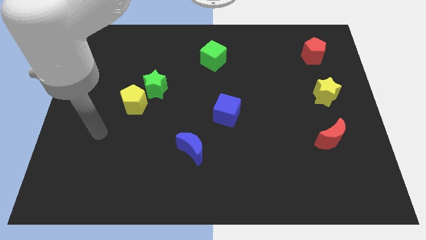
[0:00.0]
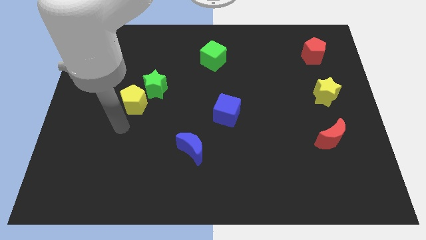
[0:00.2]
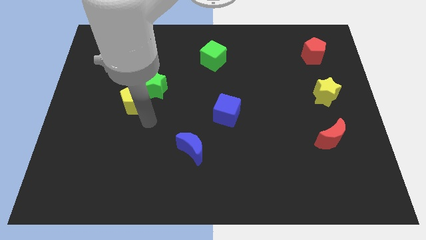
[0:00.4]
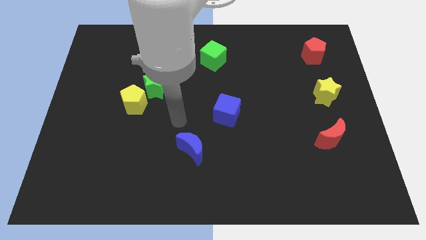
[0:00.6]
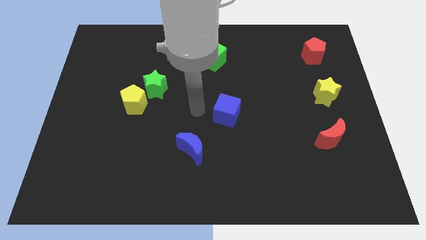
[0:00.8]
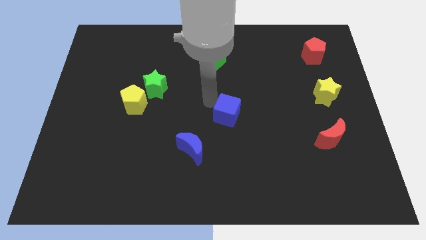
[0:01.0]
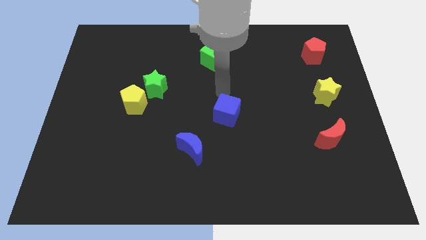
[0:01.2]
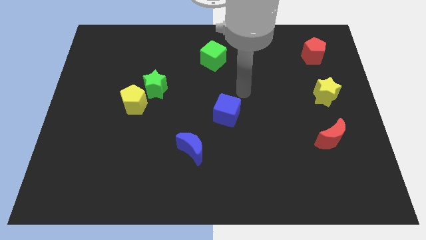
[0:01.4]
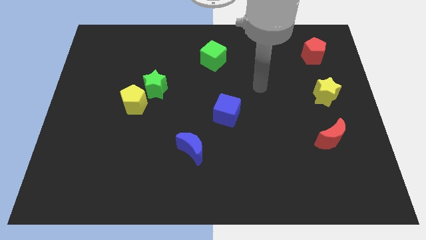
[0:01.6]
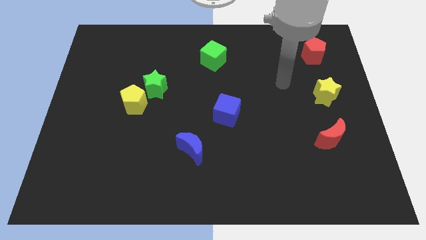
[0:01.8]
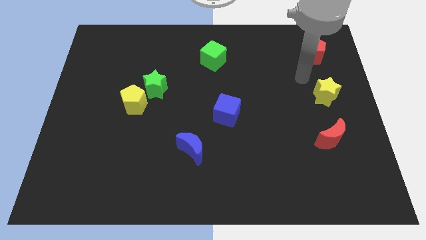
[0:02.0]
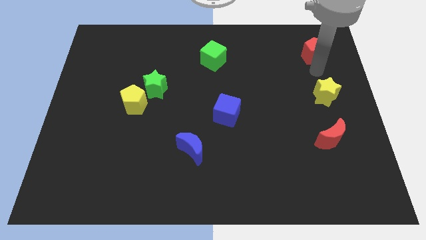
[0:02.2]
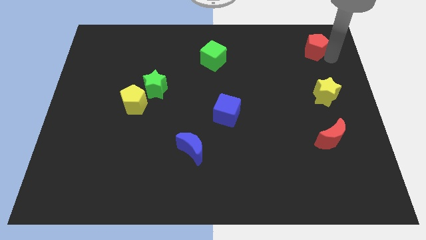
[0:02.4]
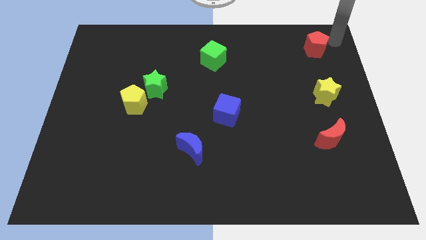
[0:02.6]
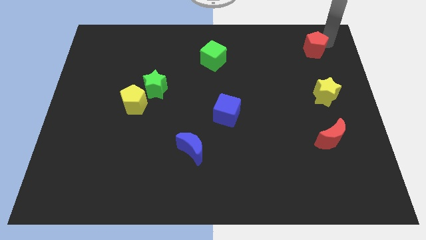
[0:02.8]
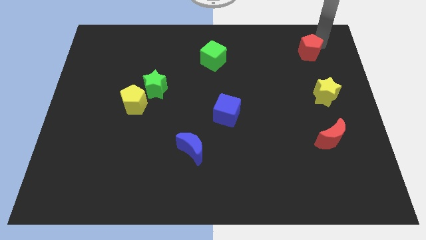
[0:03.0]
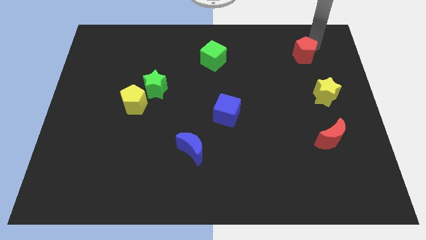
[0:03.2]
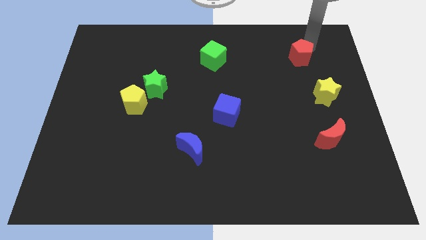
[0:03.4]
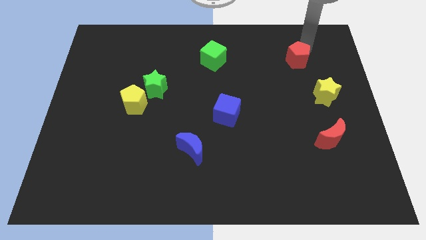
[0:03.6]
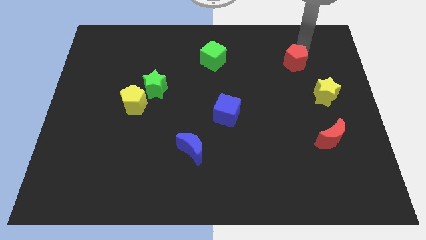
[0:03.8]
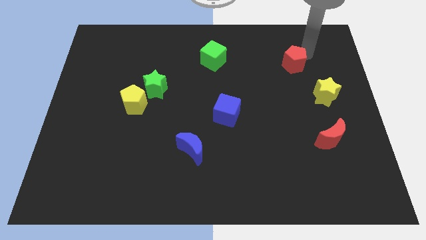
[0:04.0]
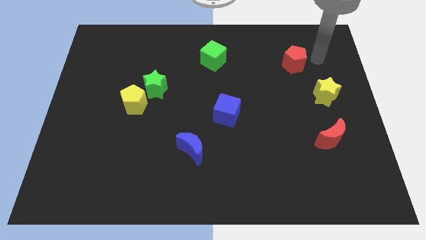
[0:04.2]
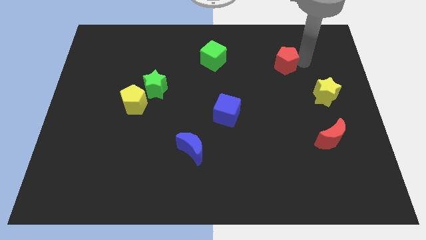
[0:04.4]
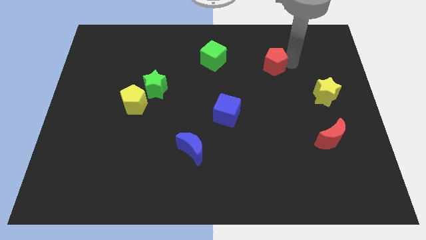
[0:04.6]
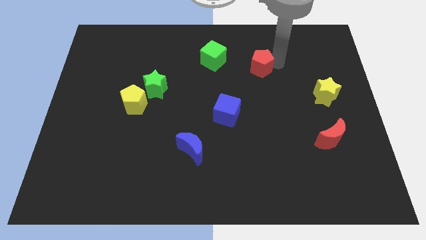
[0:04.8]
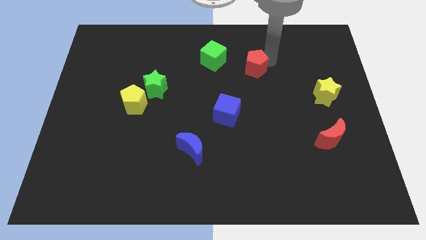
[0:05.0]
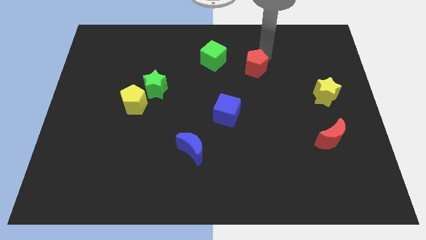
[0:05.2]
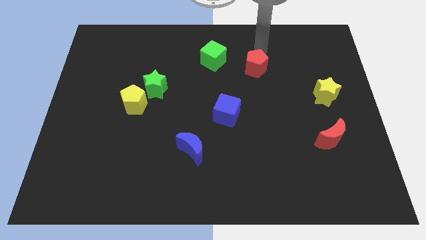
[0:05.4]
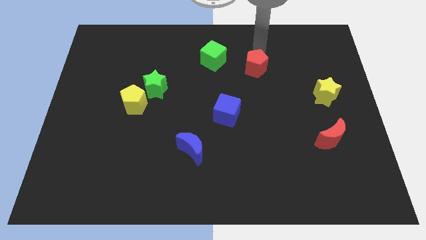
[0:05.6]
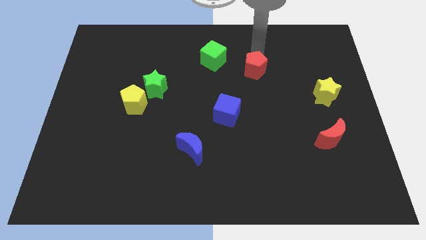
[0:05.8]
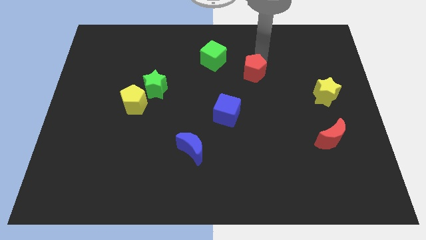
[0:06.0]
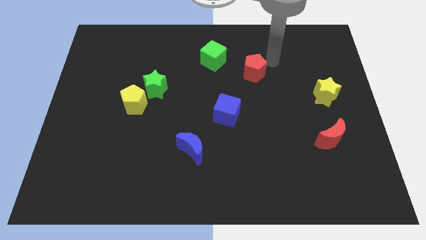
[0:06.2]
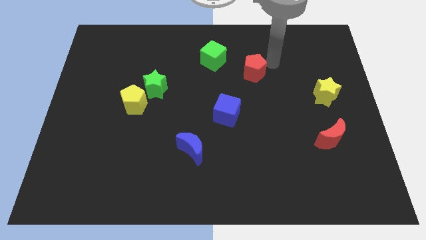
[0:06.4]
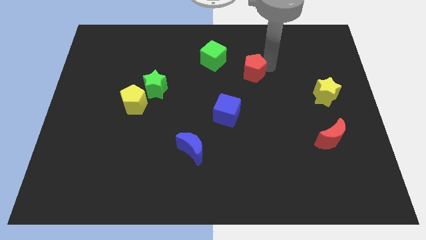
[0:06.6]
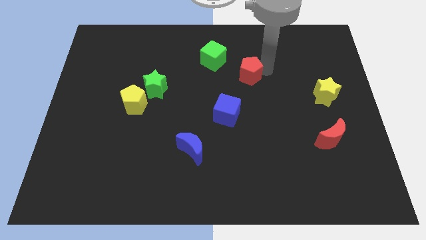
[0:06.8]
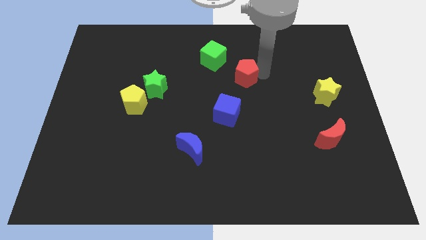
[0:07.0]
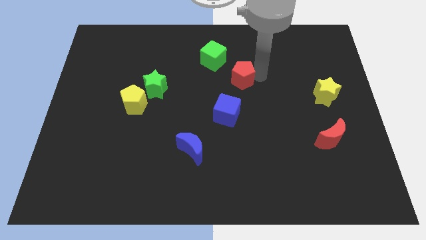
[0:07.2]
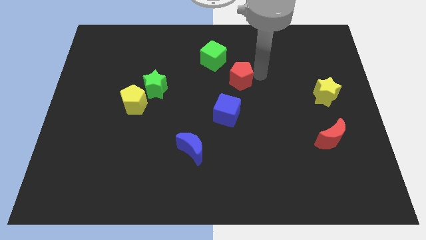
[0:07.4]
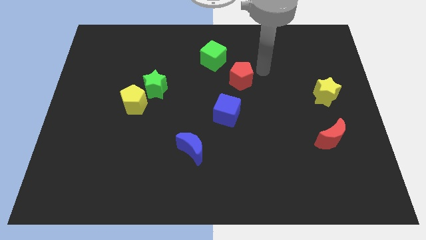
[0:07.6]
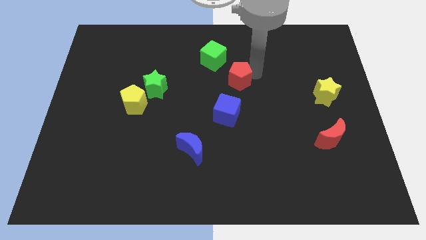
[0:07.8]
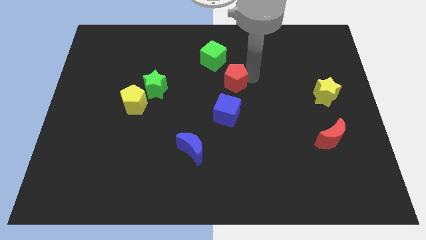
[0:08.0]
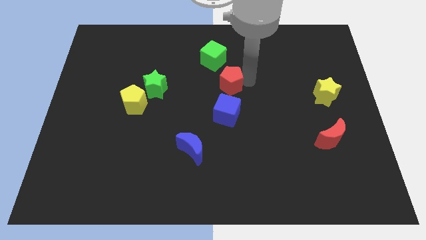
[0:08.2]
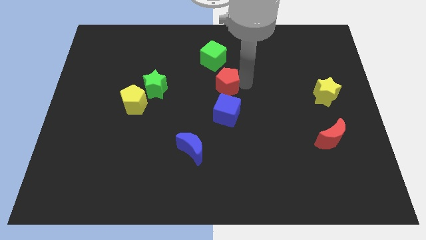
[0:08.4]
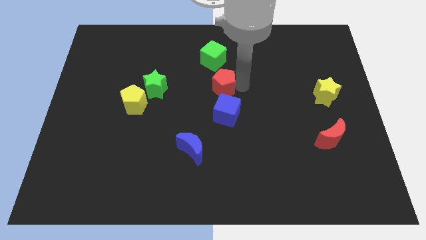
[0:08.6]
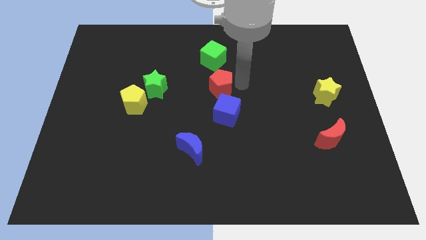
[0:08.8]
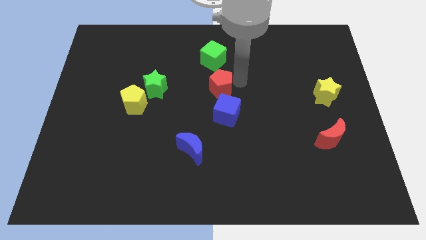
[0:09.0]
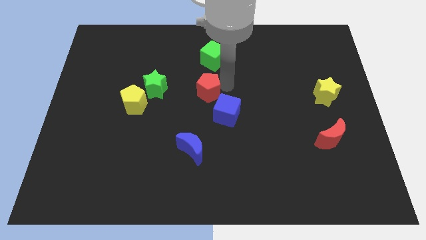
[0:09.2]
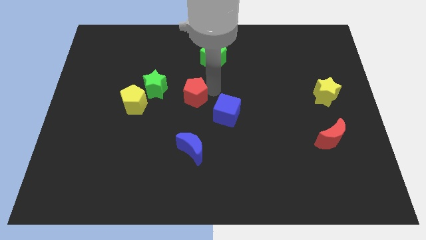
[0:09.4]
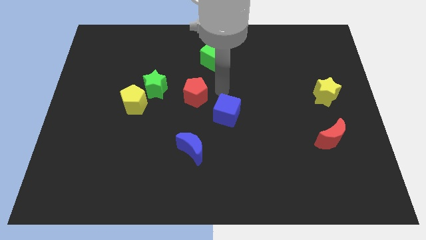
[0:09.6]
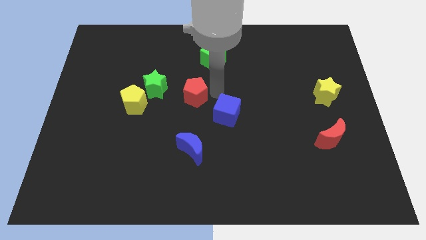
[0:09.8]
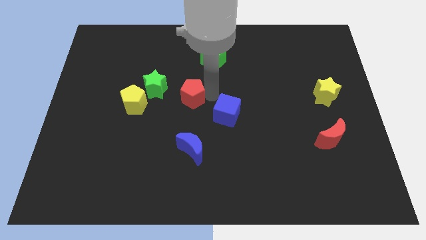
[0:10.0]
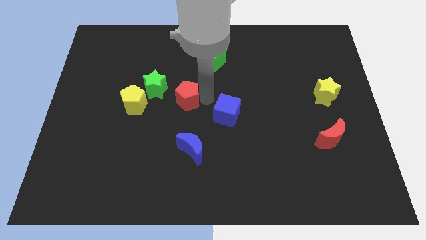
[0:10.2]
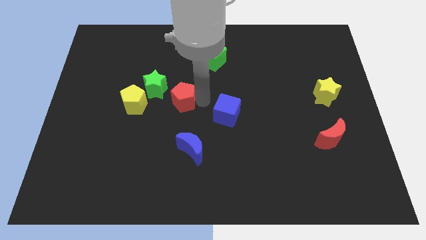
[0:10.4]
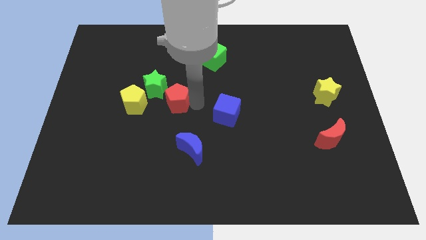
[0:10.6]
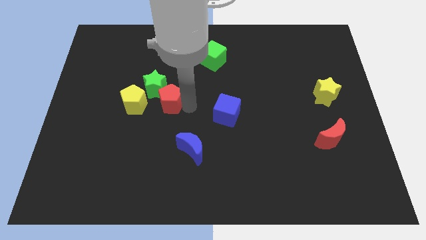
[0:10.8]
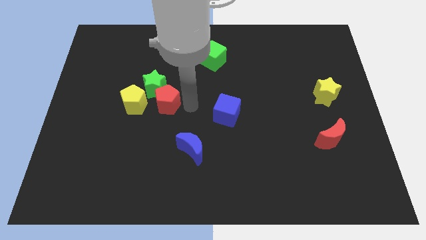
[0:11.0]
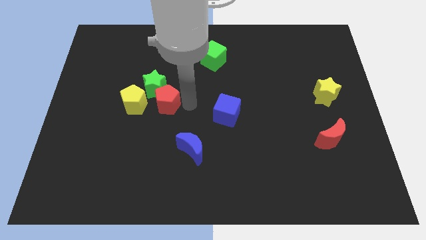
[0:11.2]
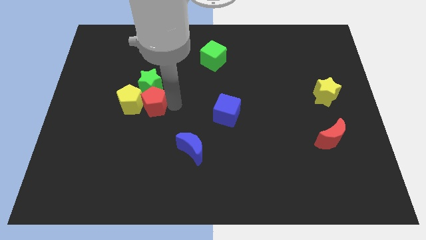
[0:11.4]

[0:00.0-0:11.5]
slide the red pentagon close to the yellow pentagon

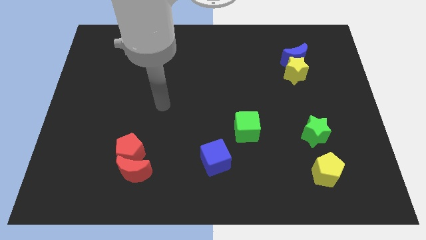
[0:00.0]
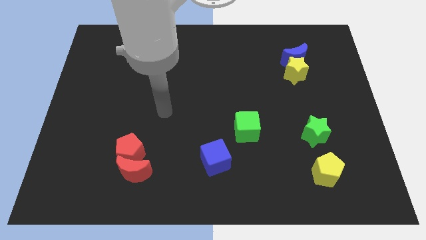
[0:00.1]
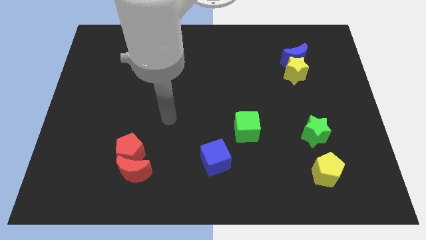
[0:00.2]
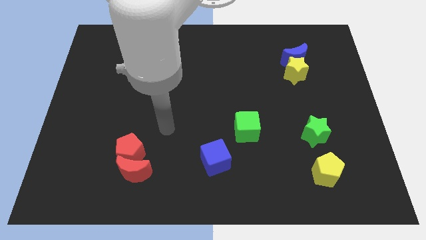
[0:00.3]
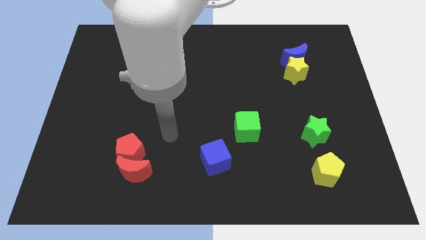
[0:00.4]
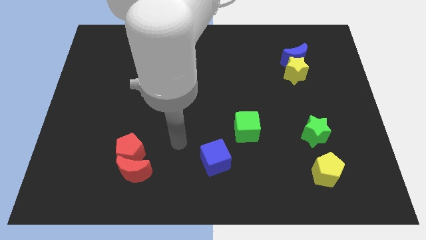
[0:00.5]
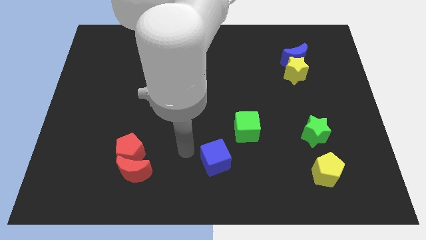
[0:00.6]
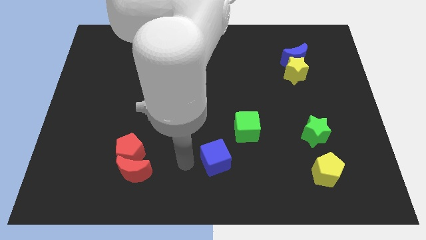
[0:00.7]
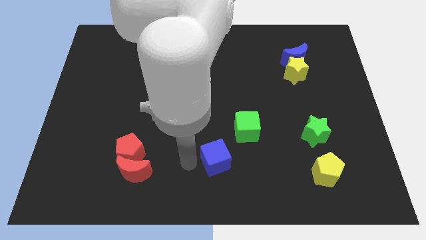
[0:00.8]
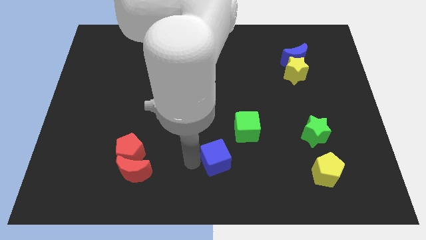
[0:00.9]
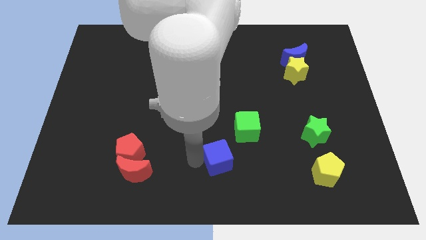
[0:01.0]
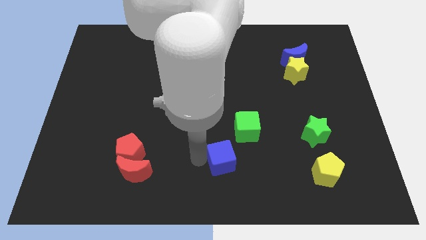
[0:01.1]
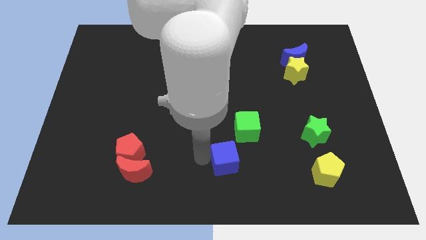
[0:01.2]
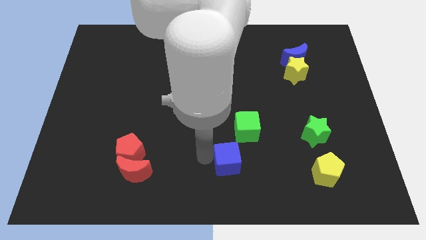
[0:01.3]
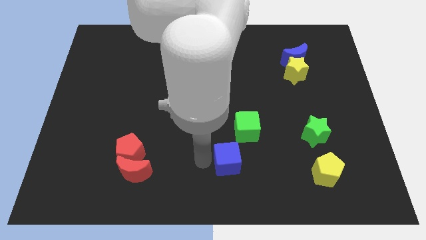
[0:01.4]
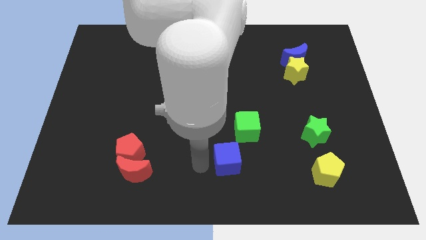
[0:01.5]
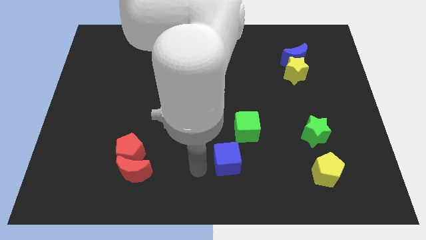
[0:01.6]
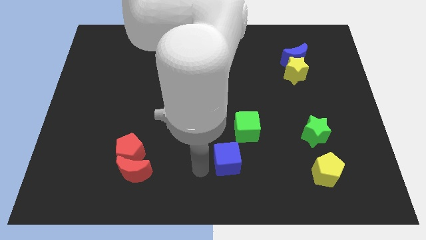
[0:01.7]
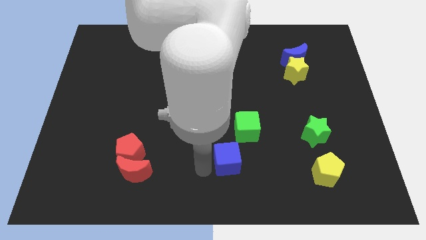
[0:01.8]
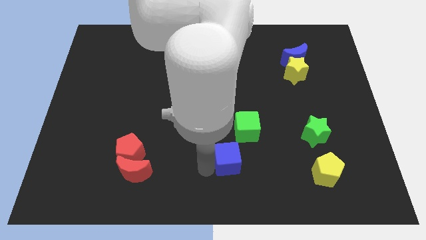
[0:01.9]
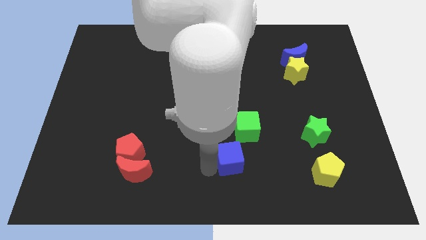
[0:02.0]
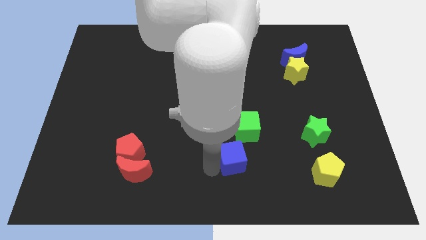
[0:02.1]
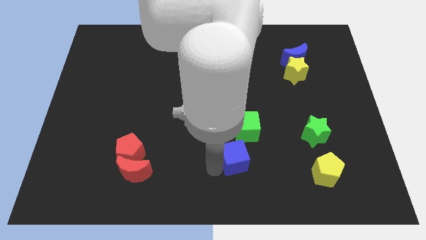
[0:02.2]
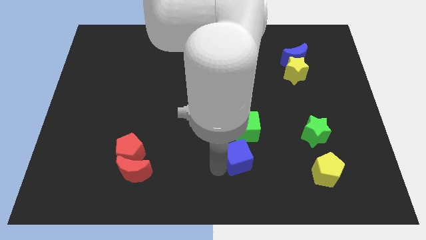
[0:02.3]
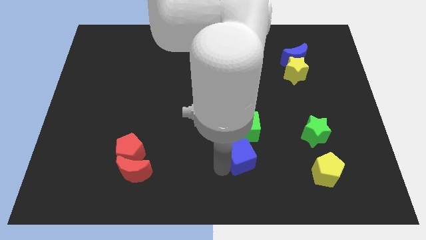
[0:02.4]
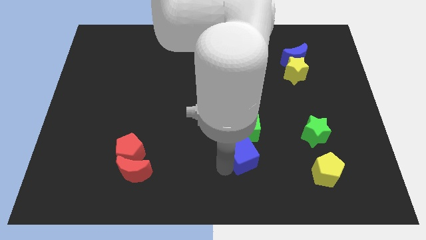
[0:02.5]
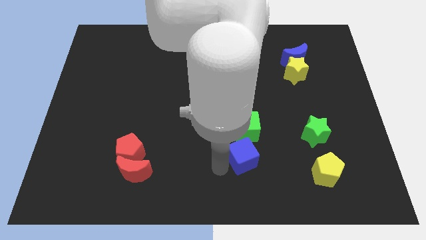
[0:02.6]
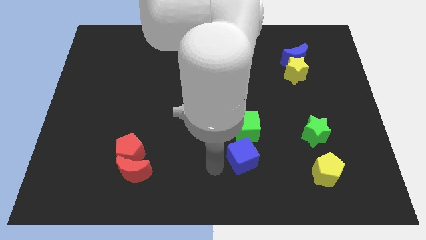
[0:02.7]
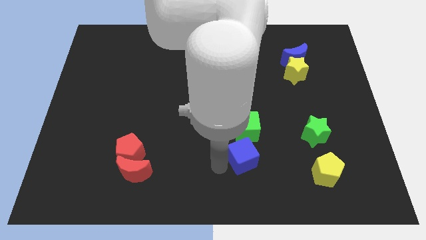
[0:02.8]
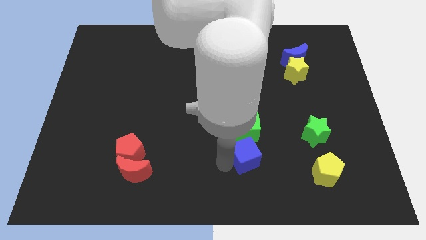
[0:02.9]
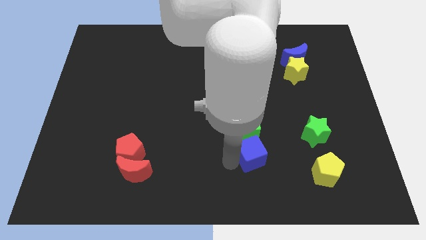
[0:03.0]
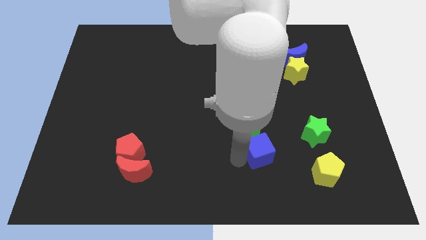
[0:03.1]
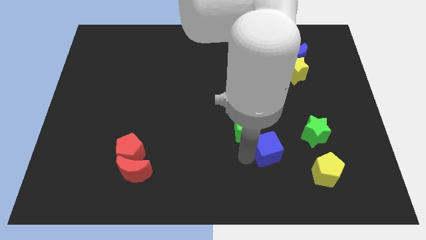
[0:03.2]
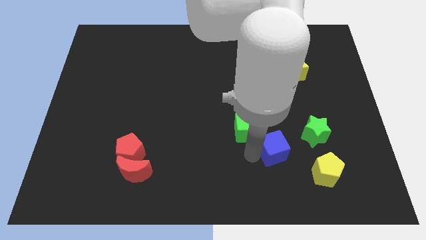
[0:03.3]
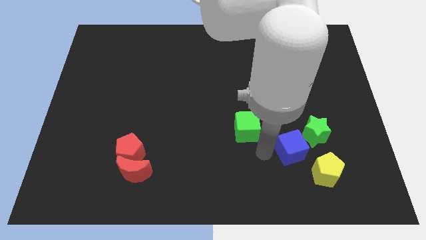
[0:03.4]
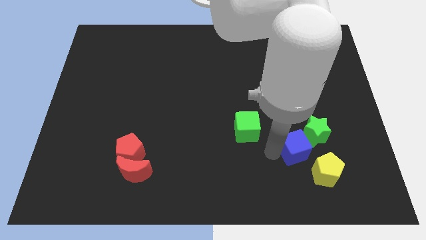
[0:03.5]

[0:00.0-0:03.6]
put the blue cube towards the green star
